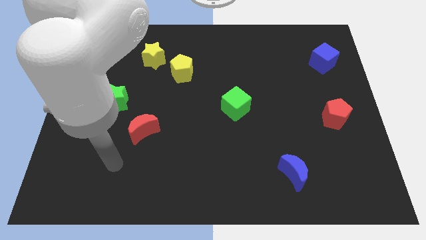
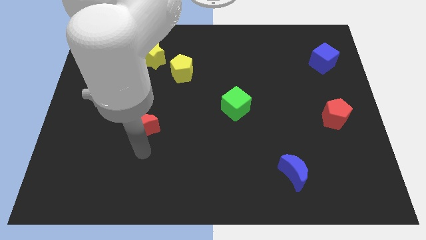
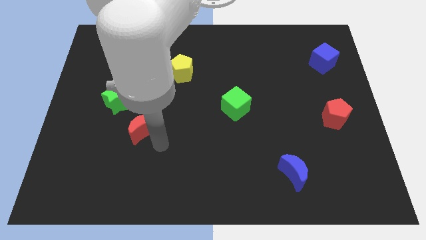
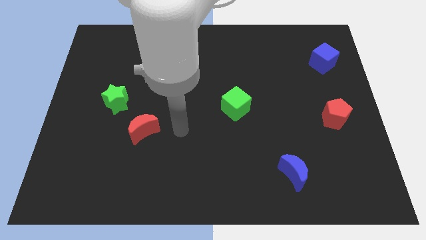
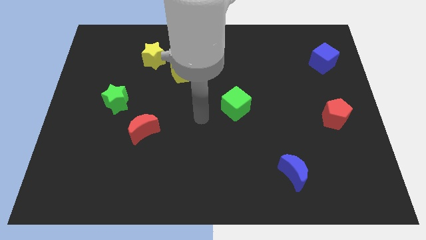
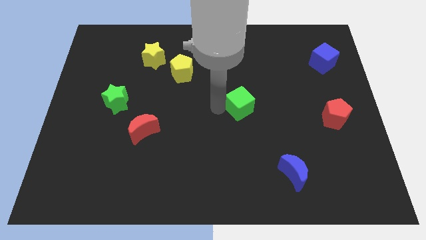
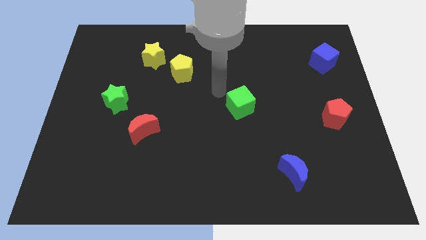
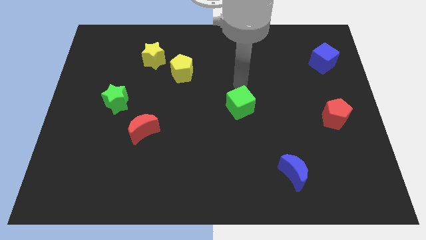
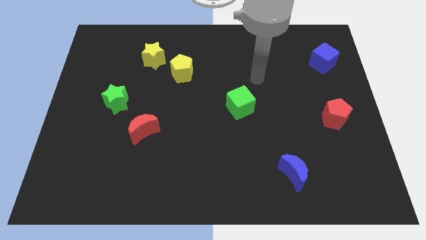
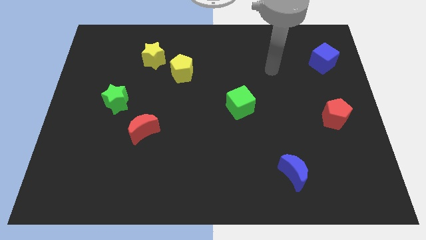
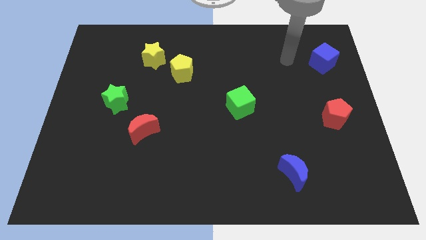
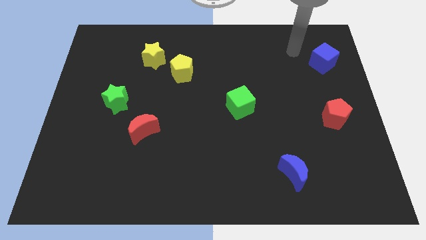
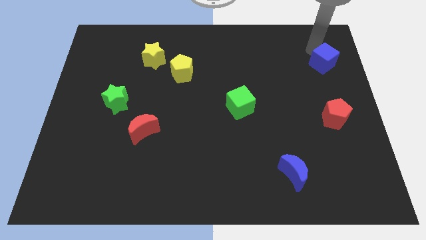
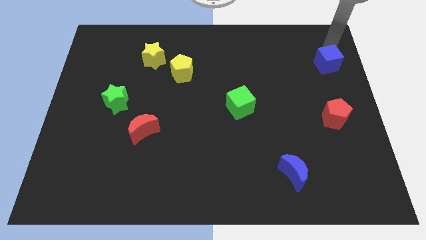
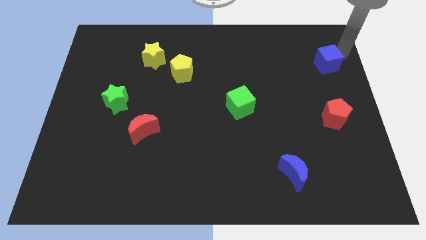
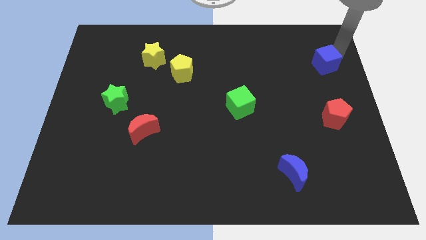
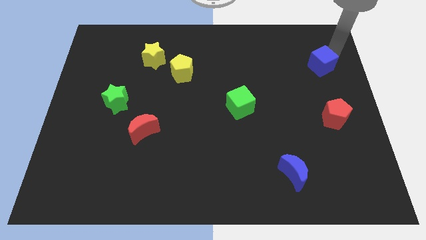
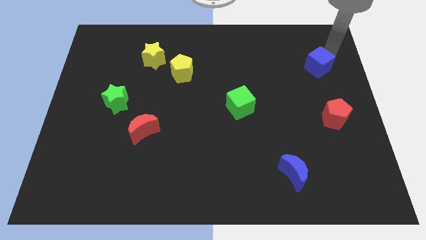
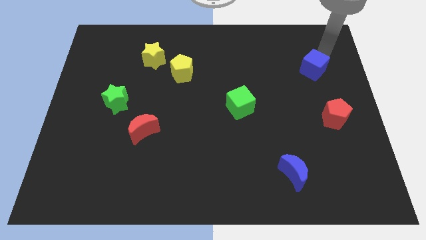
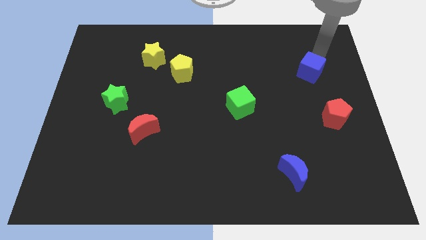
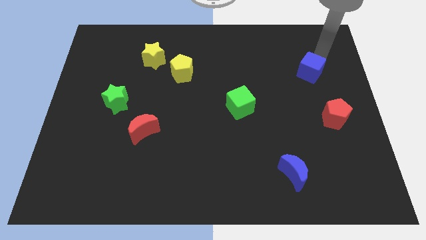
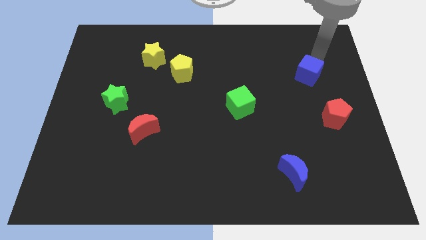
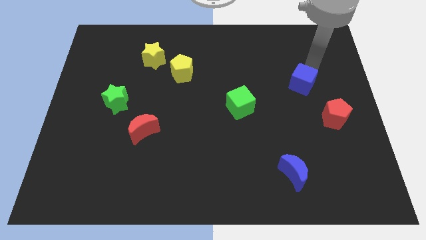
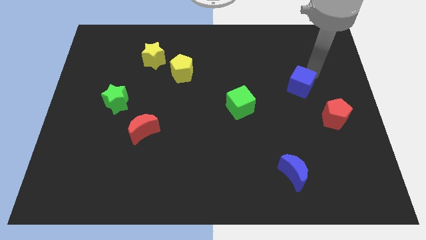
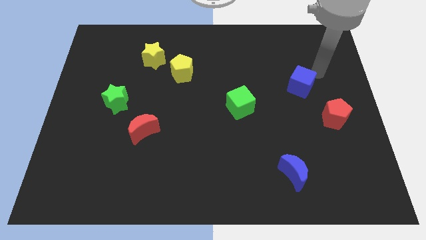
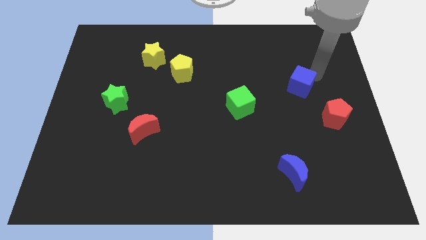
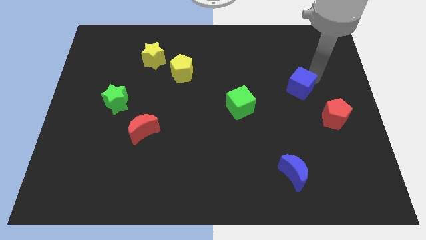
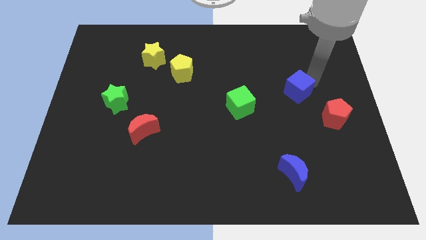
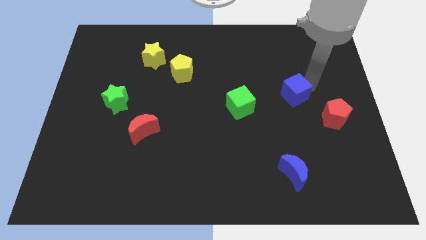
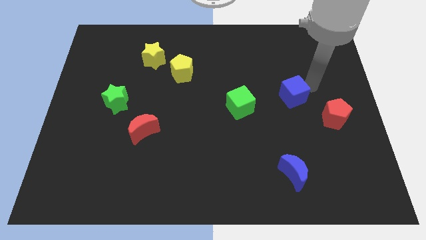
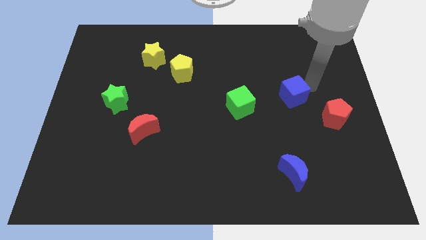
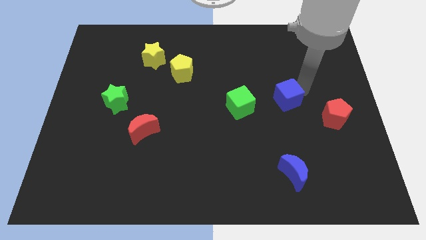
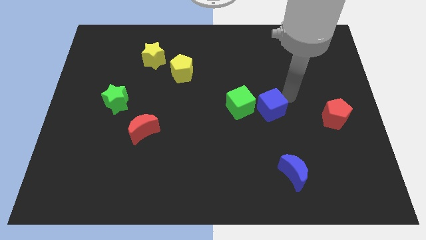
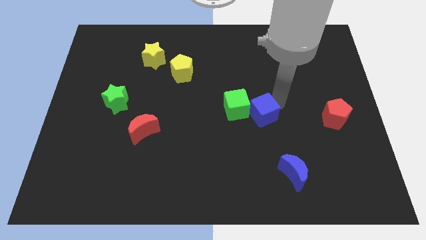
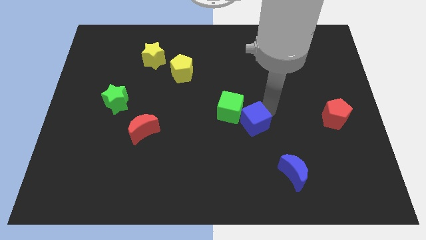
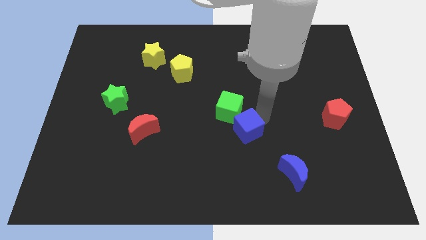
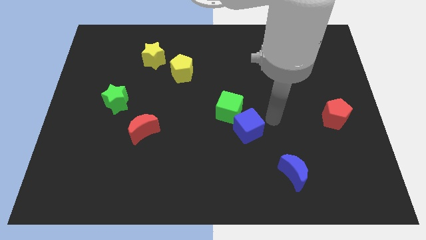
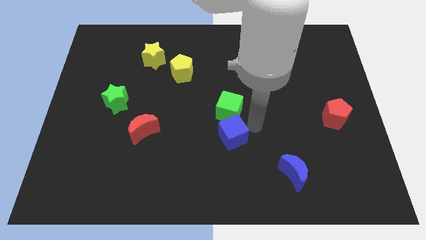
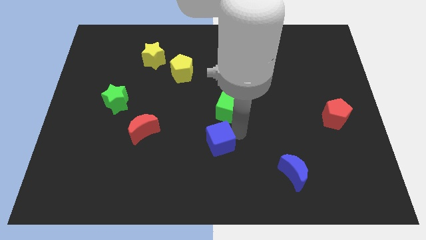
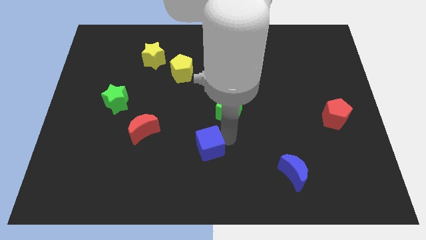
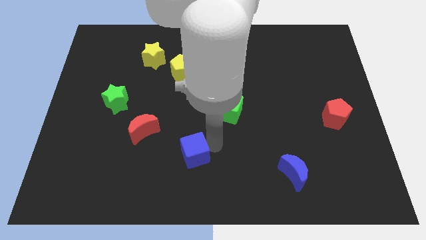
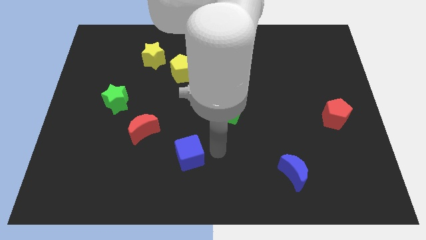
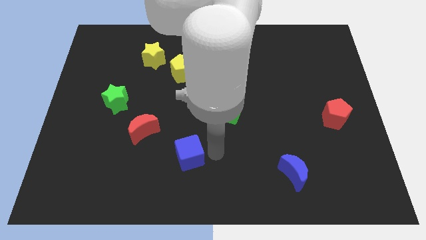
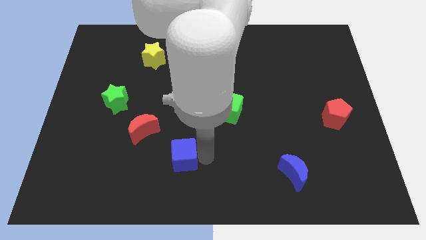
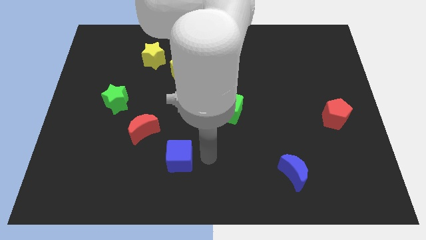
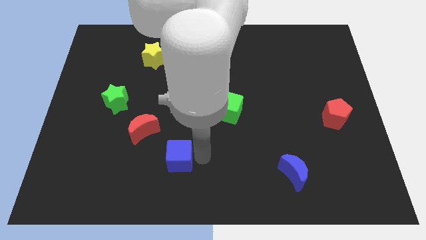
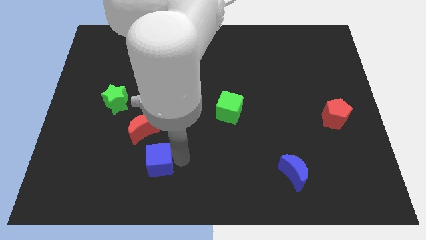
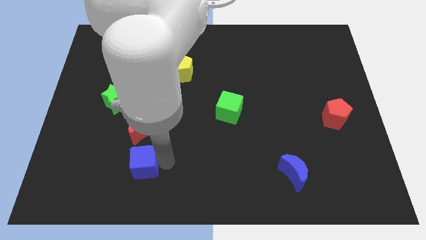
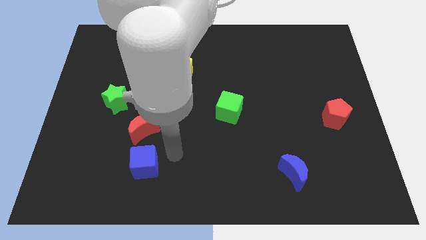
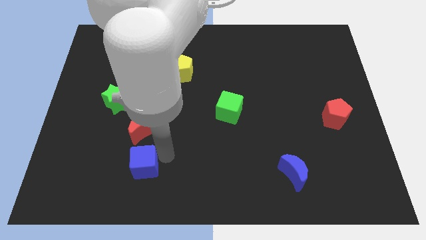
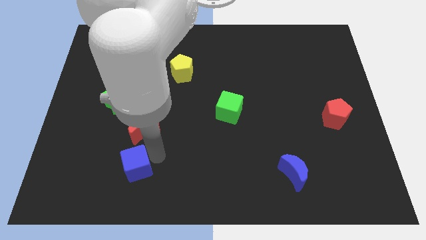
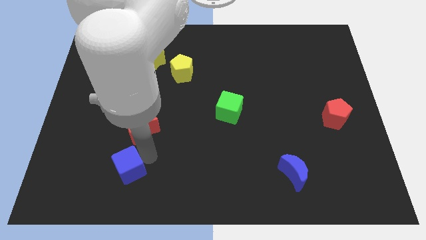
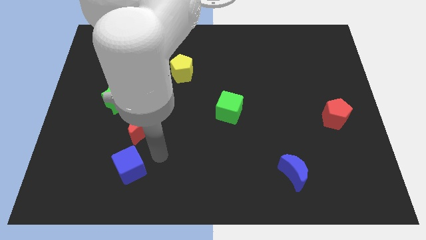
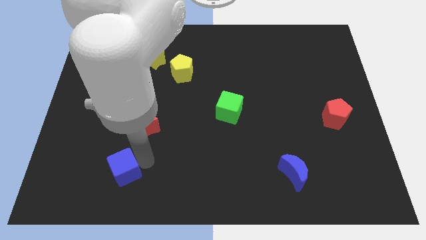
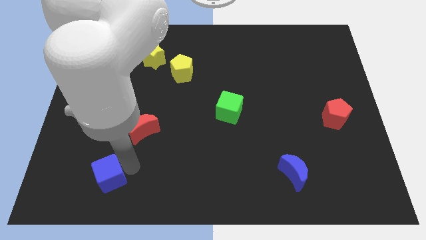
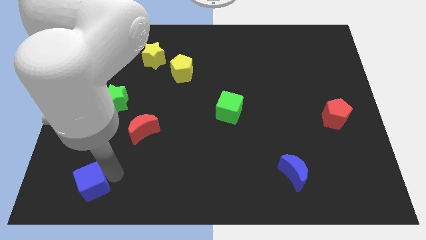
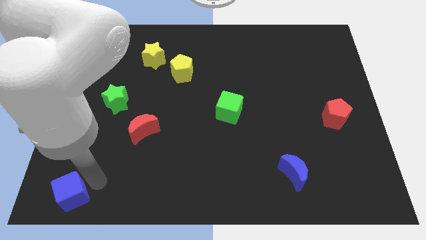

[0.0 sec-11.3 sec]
slide the blue cube to the bottom left corner

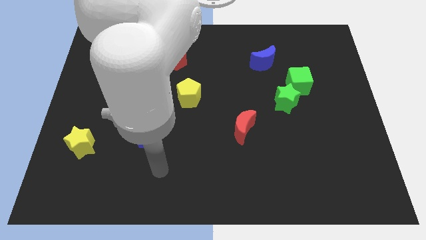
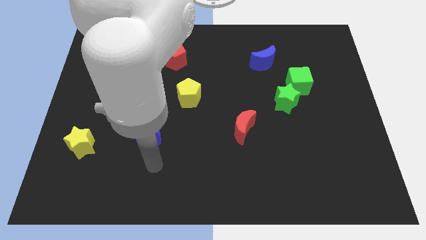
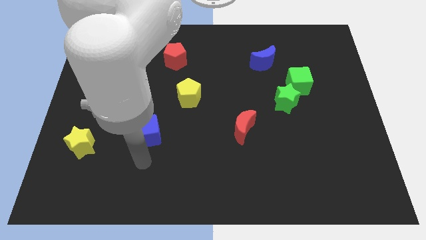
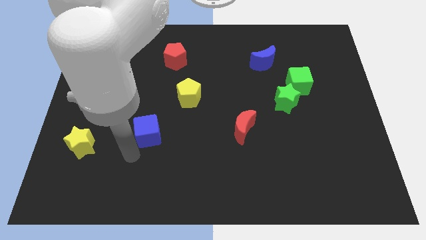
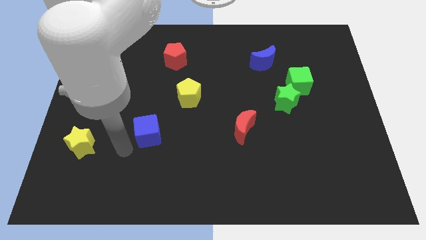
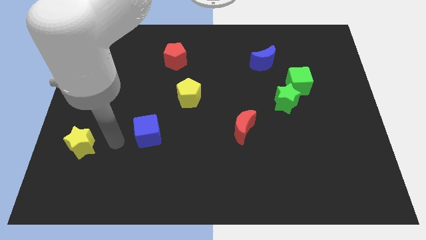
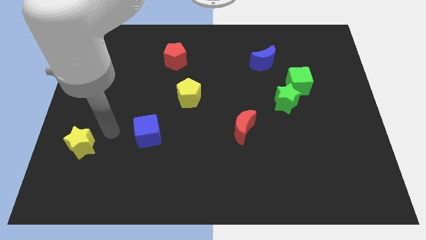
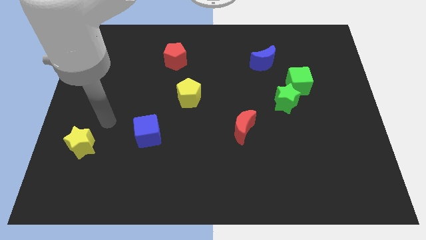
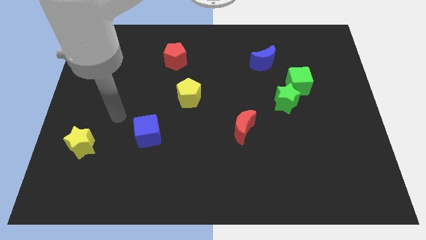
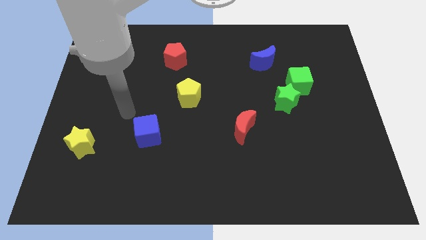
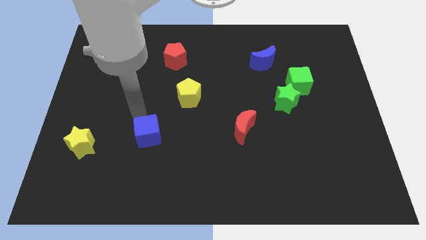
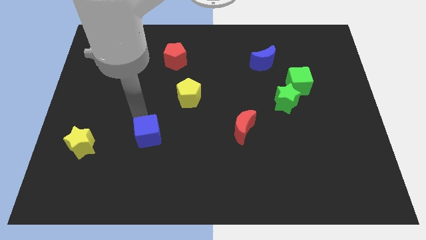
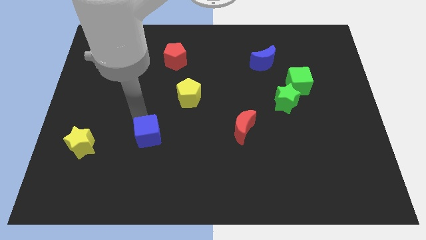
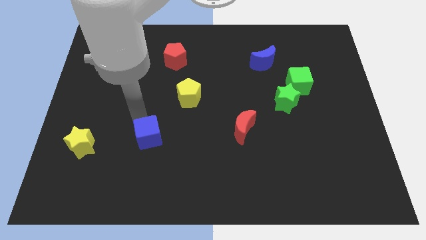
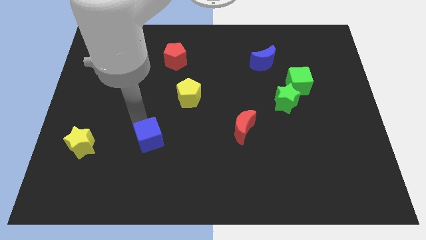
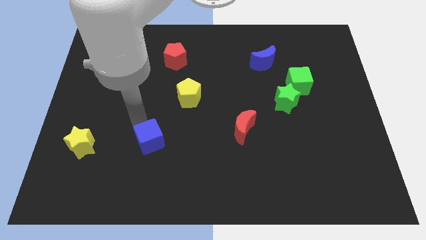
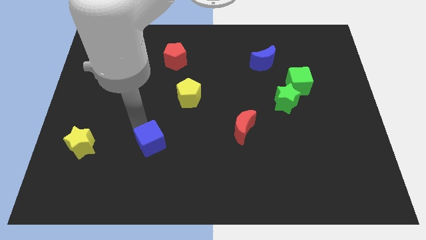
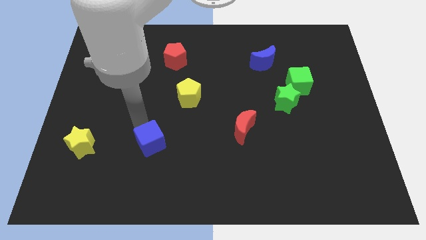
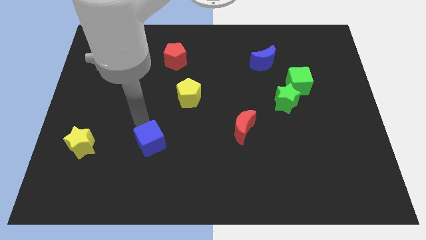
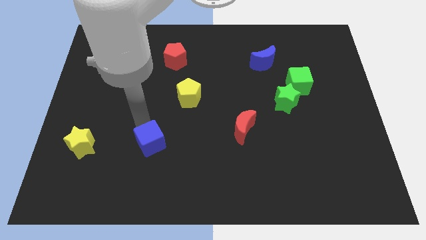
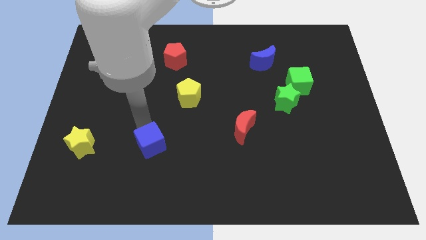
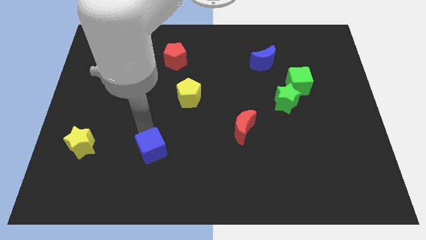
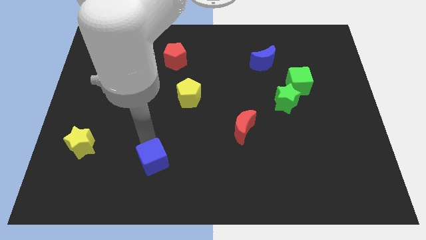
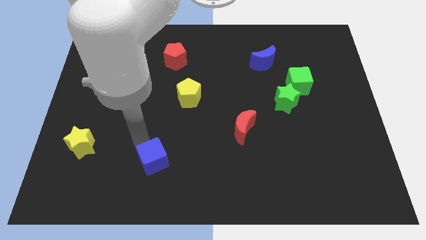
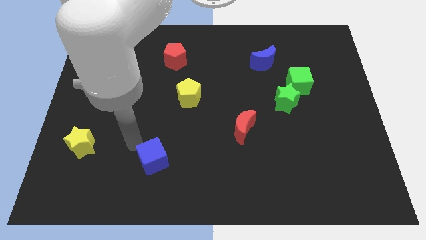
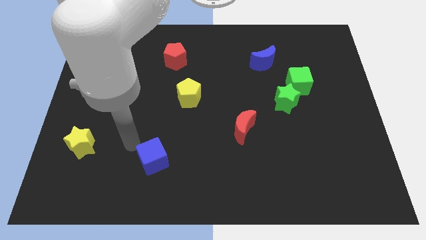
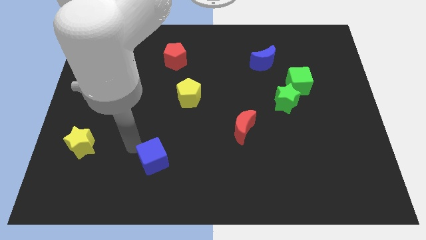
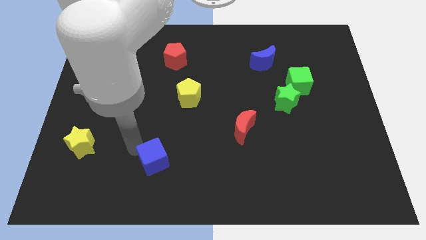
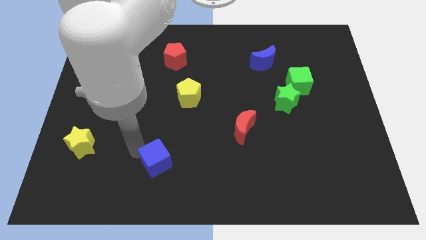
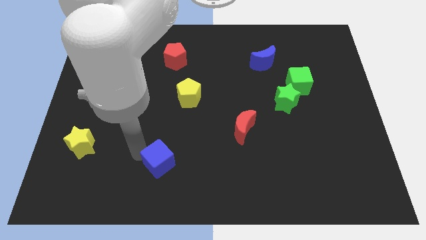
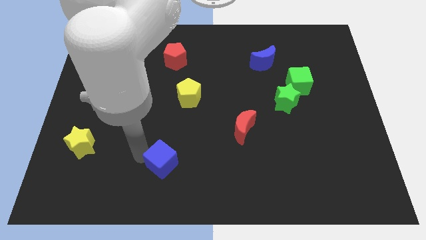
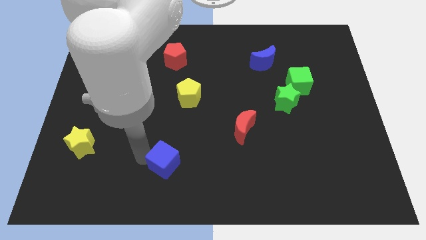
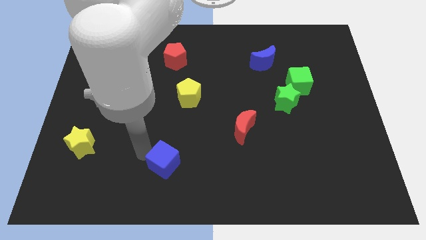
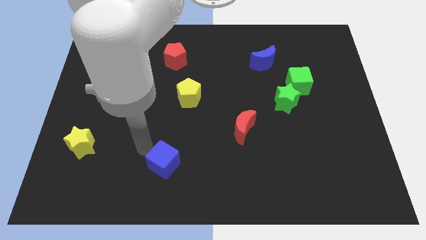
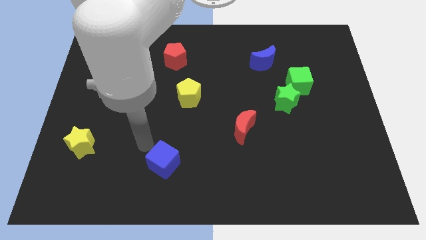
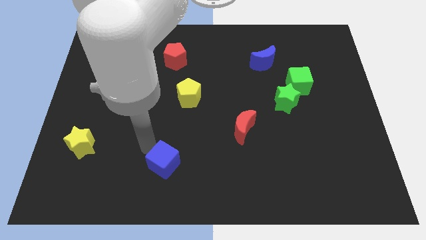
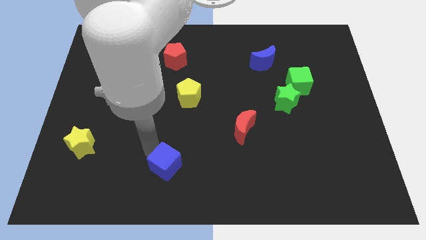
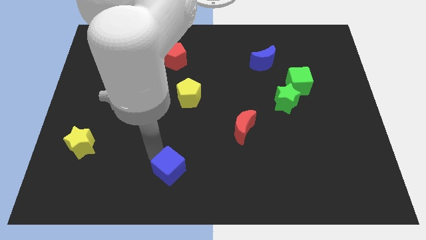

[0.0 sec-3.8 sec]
slide the blue cube to the bottom
